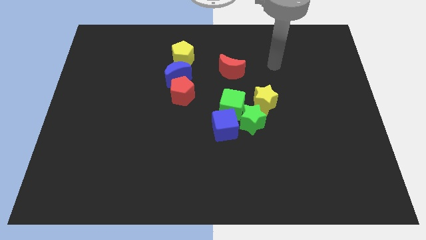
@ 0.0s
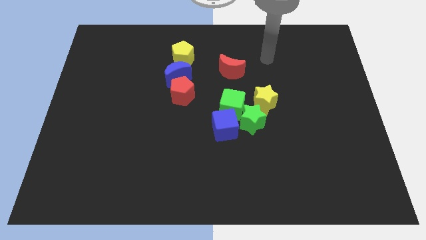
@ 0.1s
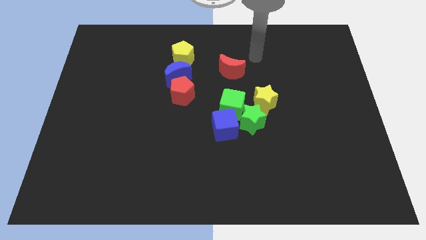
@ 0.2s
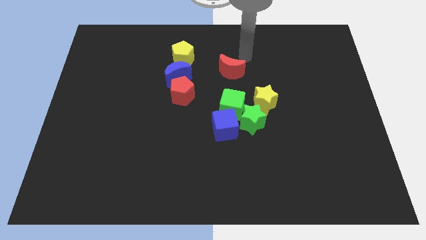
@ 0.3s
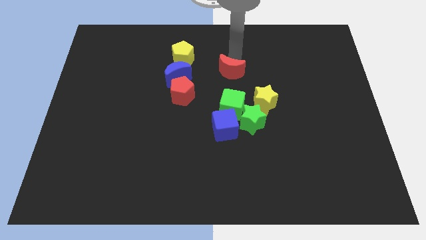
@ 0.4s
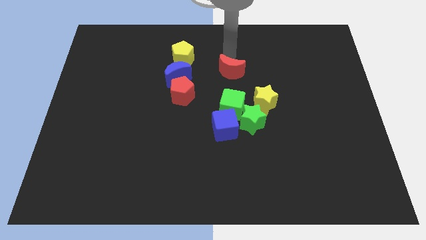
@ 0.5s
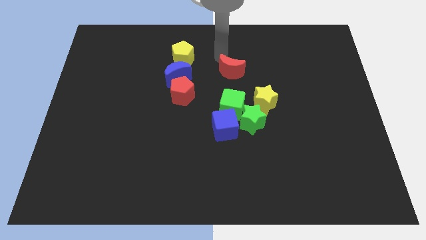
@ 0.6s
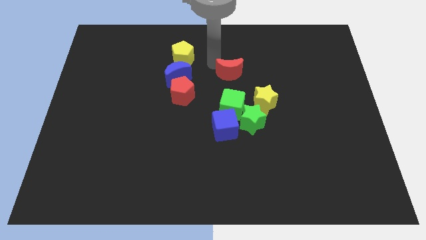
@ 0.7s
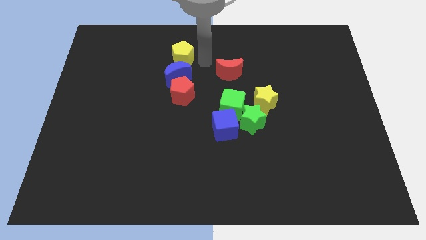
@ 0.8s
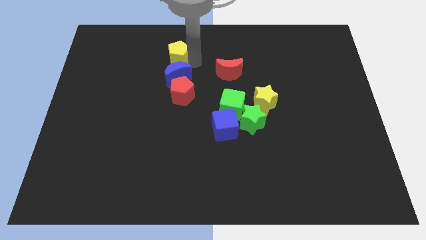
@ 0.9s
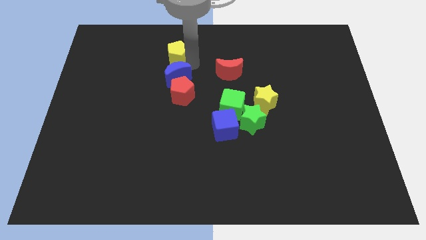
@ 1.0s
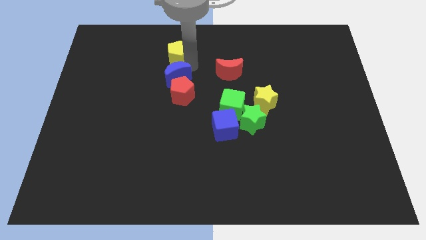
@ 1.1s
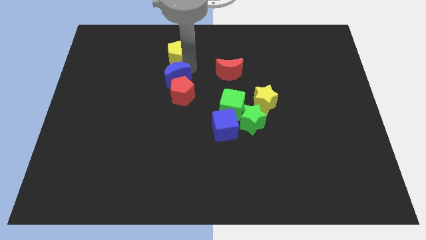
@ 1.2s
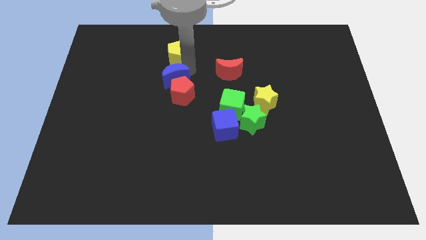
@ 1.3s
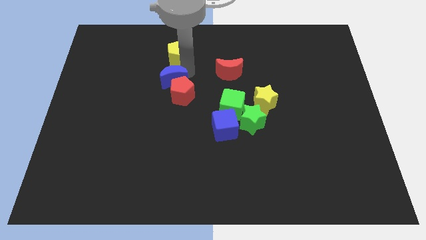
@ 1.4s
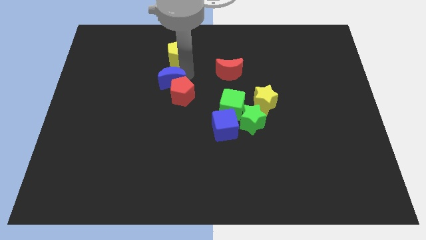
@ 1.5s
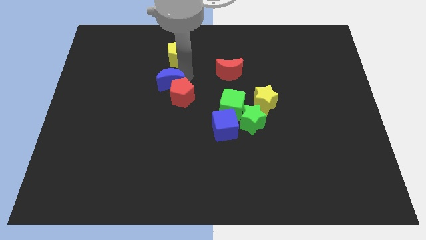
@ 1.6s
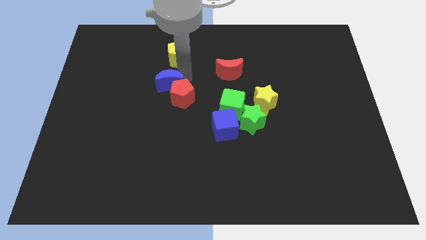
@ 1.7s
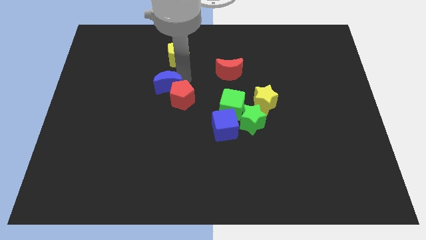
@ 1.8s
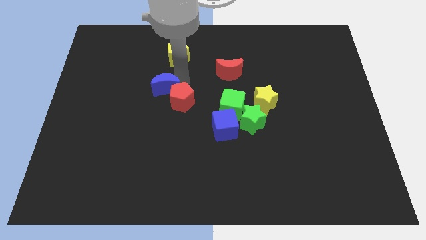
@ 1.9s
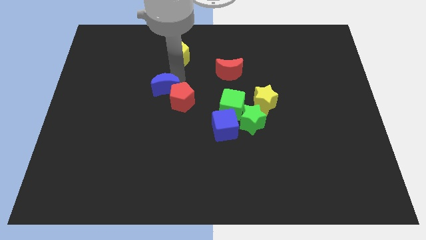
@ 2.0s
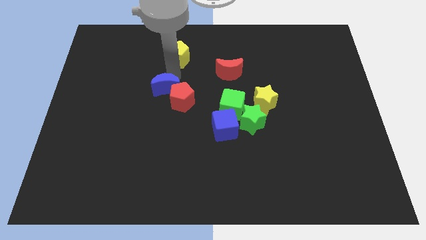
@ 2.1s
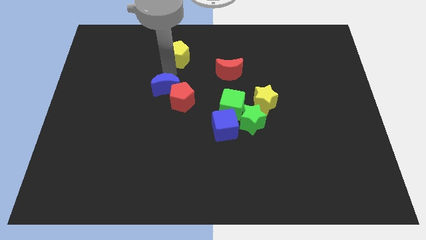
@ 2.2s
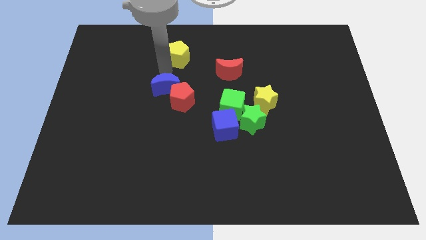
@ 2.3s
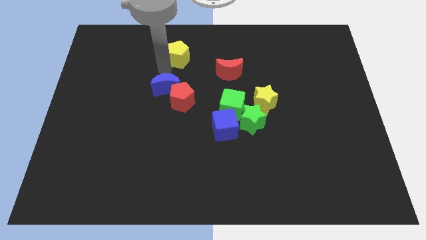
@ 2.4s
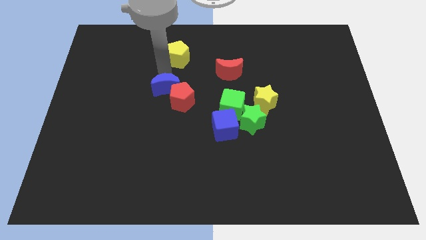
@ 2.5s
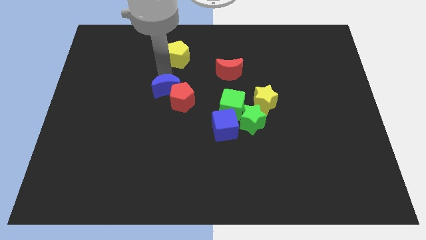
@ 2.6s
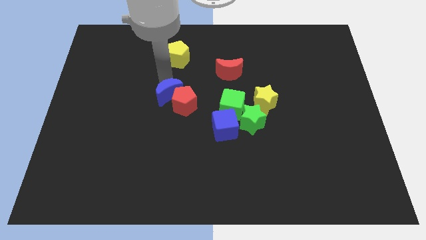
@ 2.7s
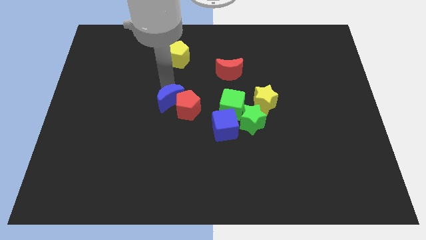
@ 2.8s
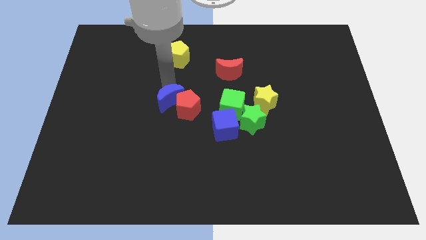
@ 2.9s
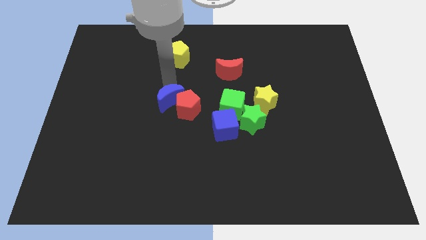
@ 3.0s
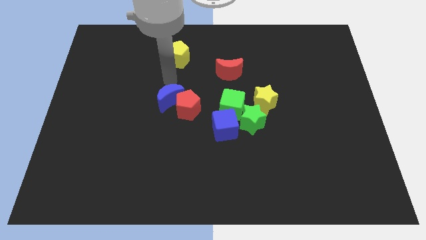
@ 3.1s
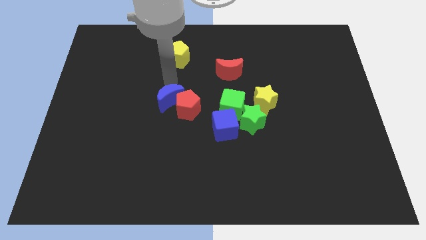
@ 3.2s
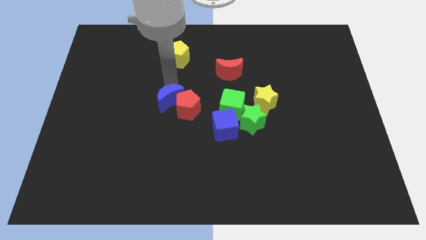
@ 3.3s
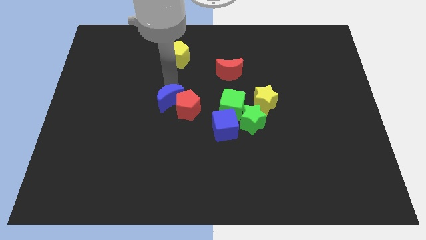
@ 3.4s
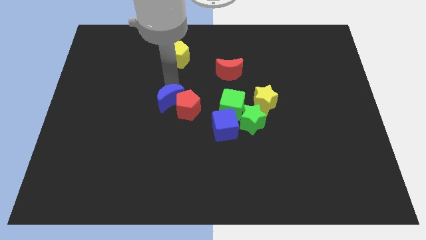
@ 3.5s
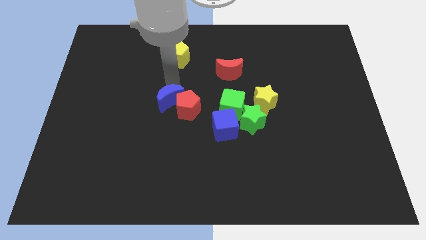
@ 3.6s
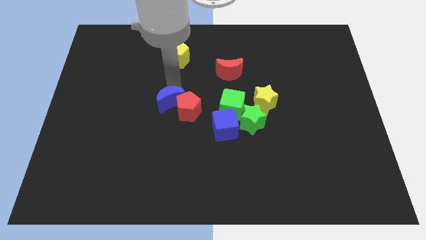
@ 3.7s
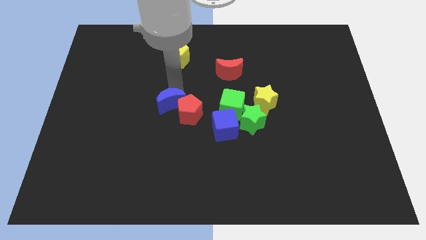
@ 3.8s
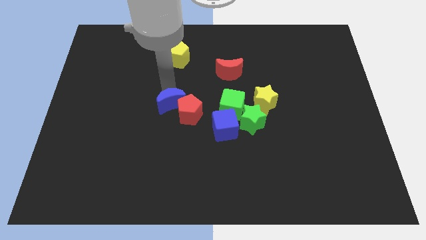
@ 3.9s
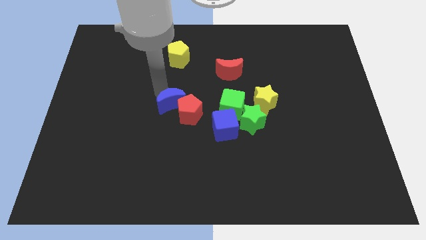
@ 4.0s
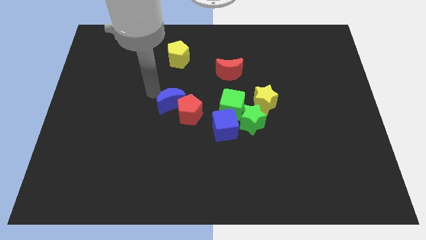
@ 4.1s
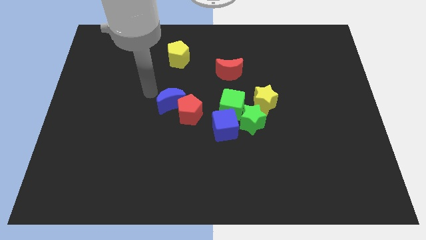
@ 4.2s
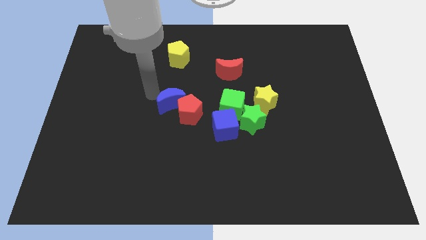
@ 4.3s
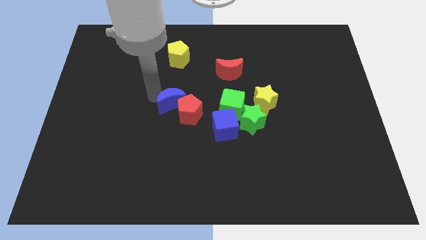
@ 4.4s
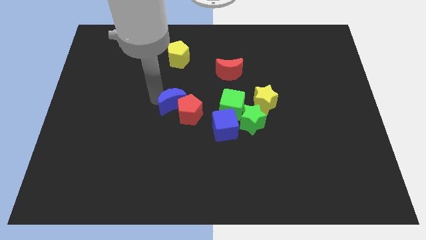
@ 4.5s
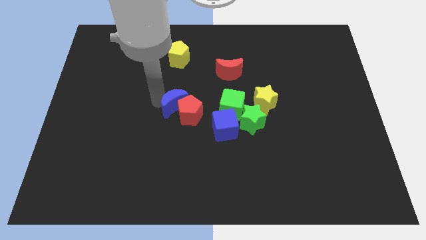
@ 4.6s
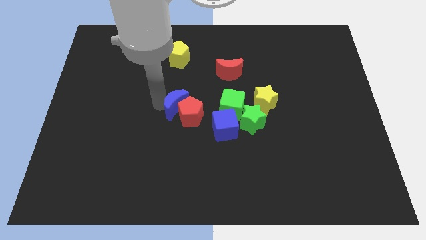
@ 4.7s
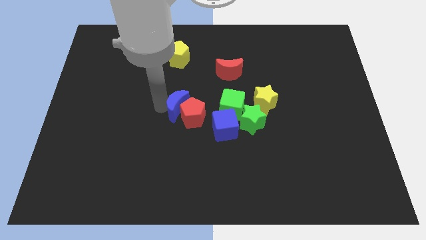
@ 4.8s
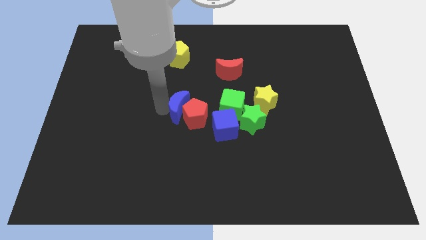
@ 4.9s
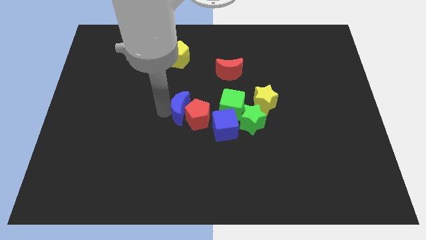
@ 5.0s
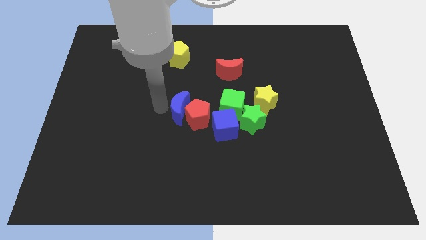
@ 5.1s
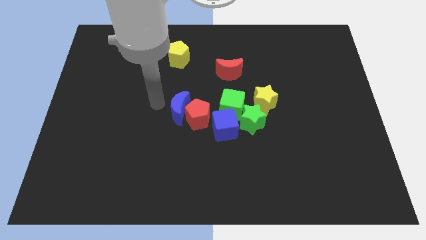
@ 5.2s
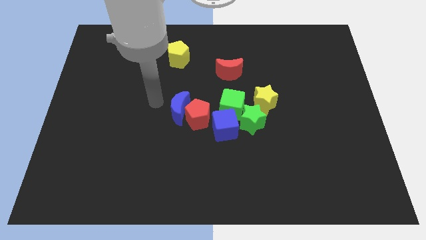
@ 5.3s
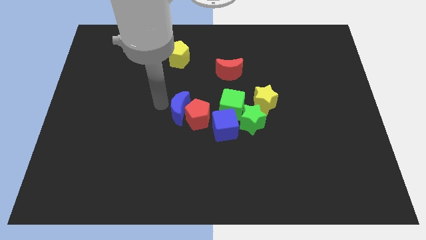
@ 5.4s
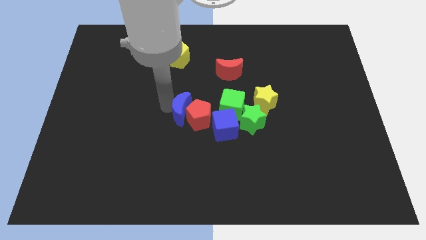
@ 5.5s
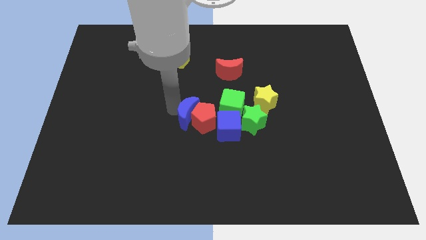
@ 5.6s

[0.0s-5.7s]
slide the blue moon to the left side of the green star

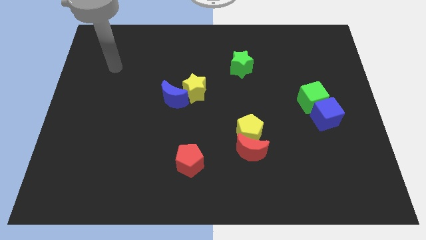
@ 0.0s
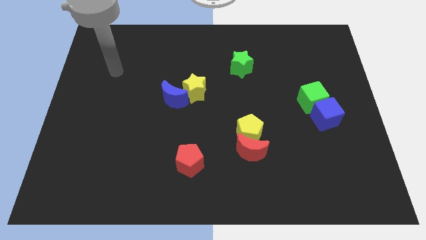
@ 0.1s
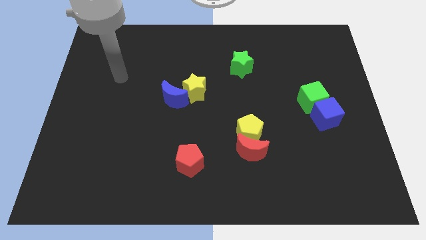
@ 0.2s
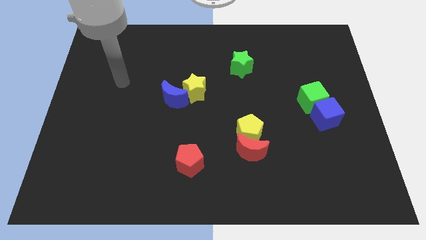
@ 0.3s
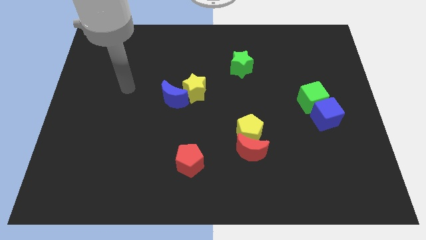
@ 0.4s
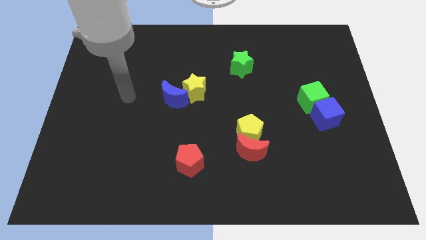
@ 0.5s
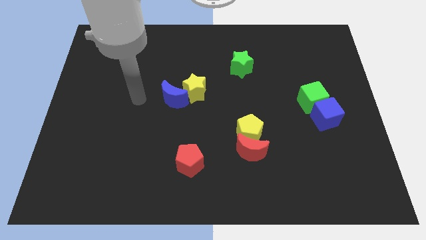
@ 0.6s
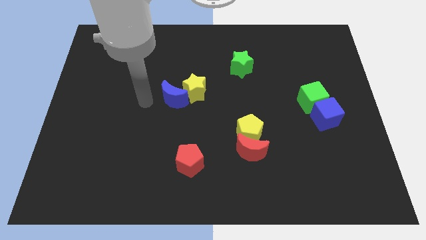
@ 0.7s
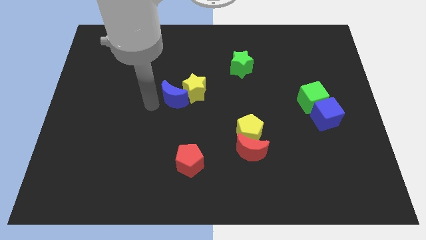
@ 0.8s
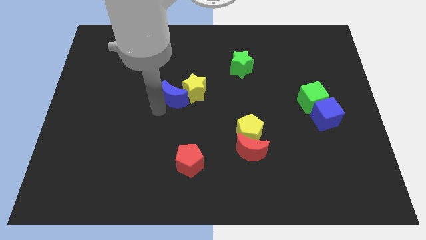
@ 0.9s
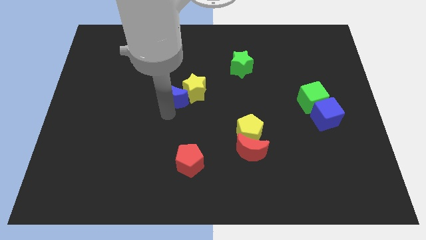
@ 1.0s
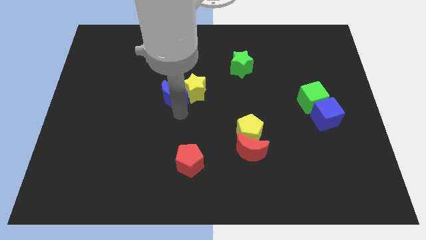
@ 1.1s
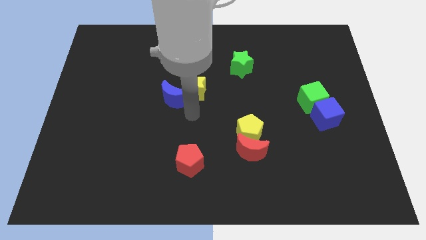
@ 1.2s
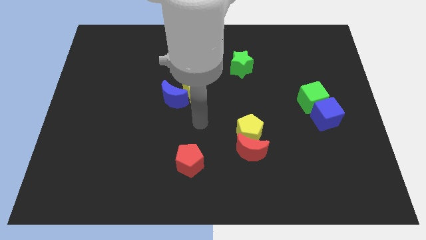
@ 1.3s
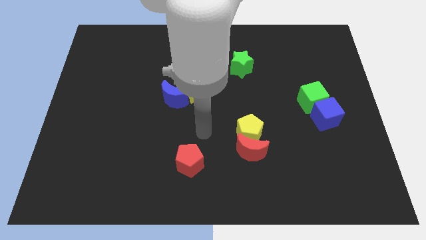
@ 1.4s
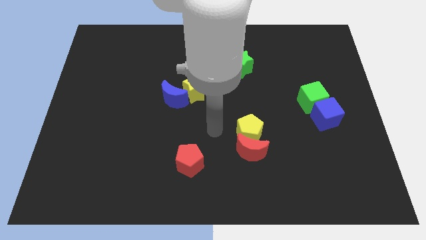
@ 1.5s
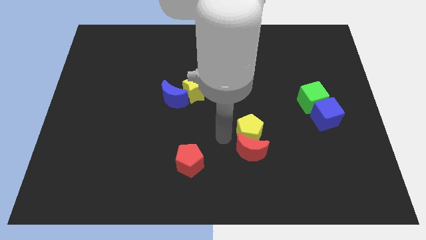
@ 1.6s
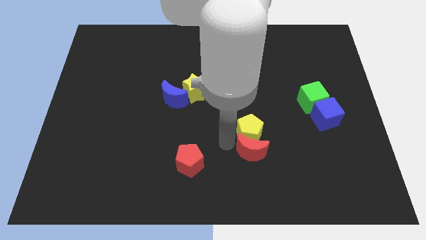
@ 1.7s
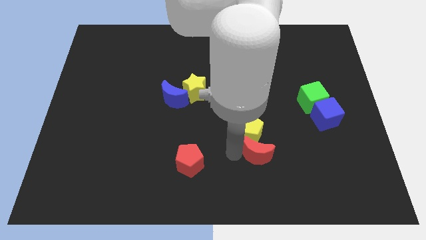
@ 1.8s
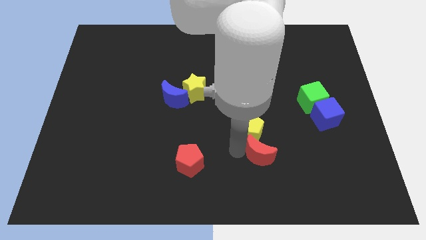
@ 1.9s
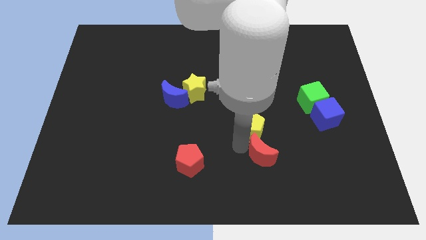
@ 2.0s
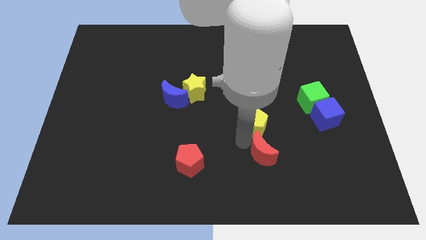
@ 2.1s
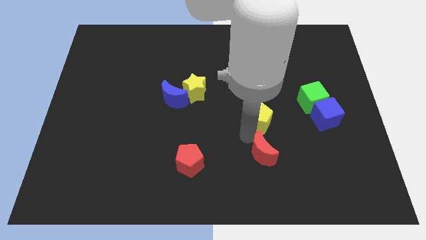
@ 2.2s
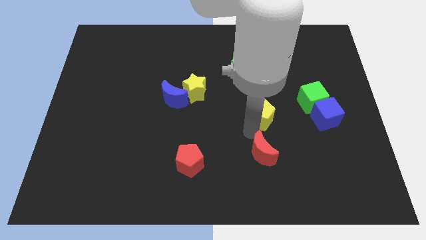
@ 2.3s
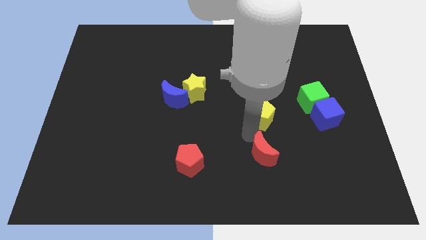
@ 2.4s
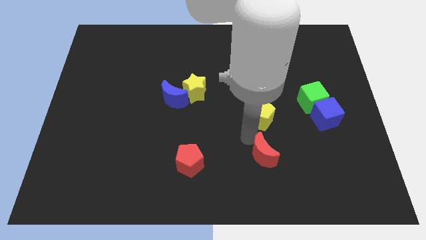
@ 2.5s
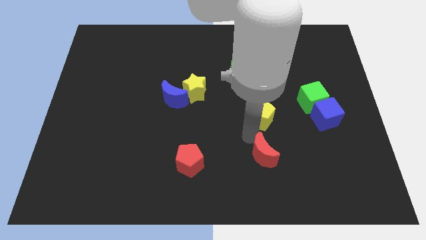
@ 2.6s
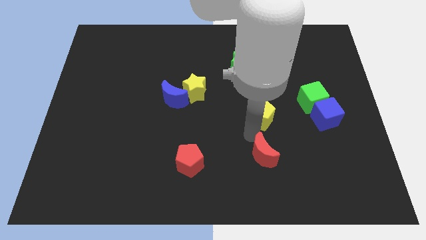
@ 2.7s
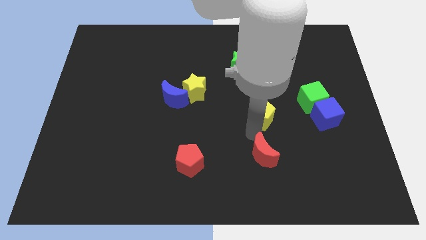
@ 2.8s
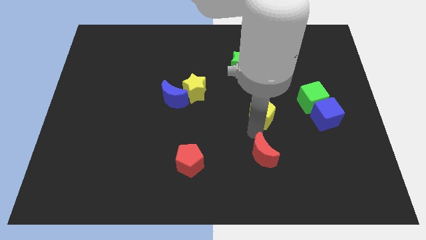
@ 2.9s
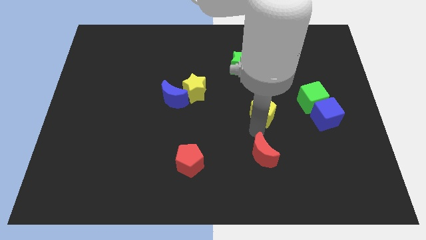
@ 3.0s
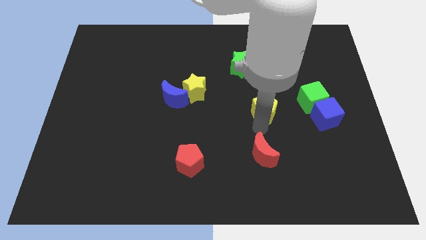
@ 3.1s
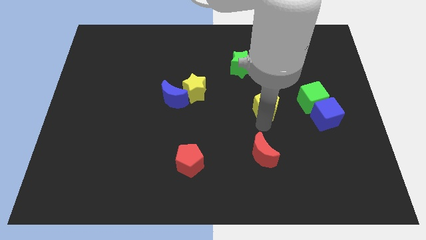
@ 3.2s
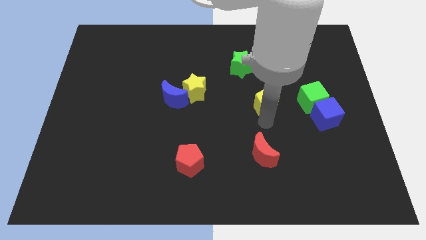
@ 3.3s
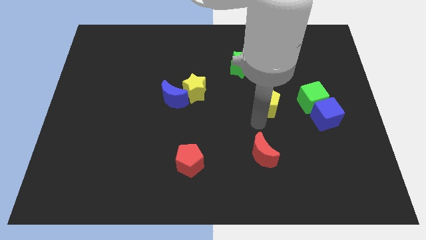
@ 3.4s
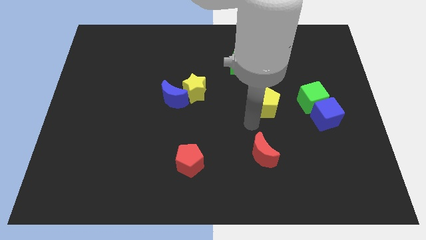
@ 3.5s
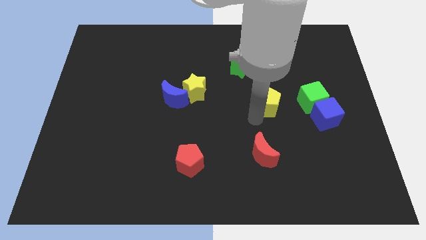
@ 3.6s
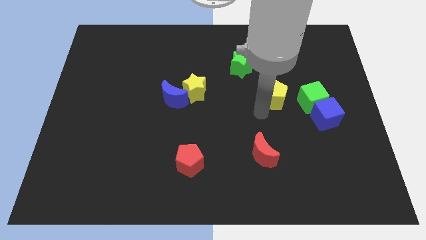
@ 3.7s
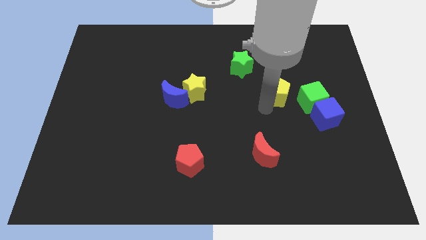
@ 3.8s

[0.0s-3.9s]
slide the yellow pentagon to the top left side of the green cube
